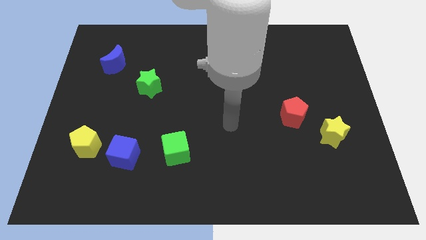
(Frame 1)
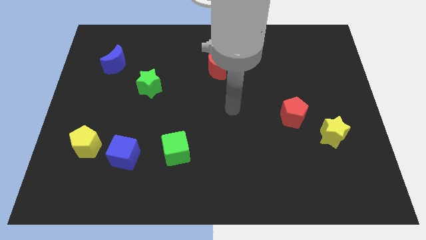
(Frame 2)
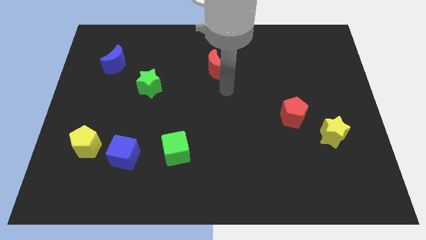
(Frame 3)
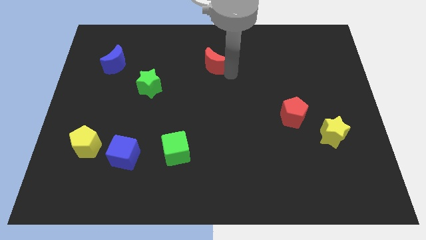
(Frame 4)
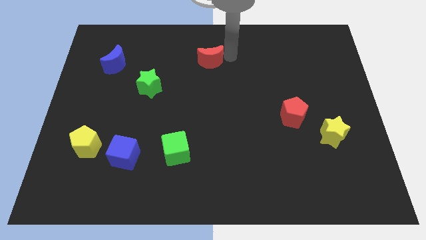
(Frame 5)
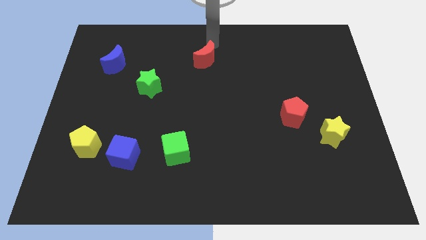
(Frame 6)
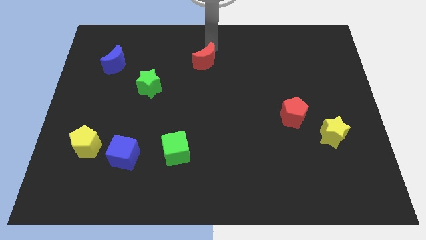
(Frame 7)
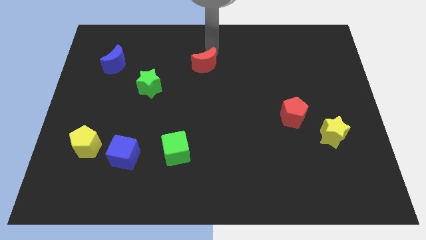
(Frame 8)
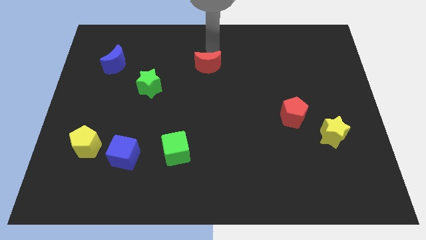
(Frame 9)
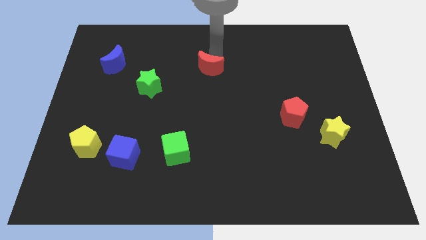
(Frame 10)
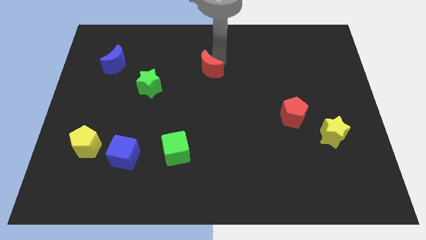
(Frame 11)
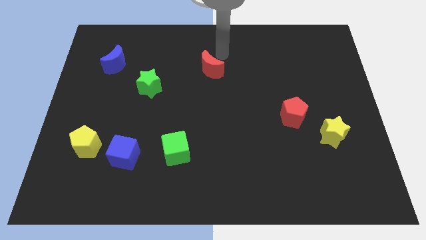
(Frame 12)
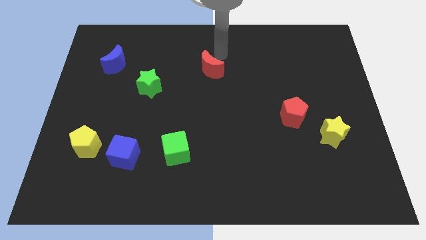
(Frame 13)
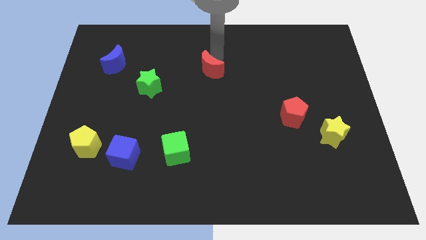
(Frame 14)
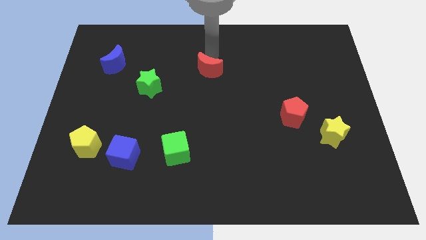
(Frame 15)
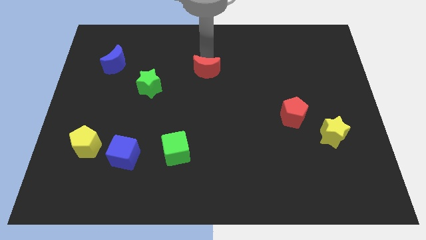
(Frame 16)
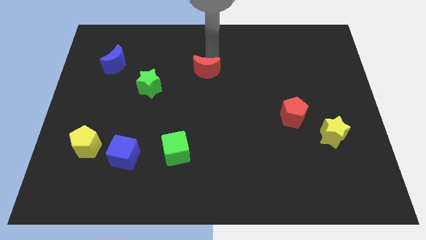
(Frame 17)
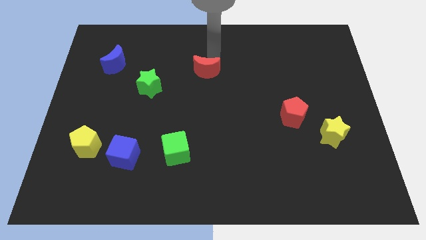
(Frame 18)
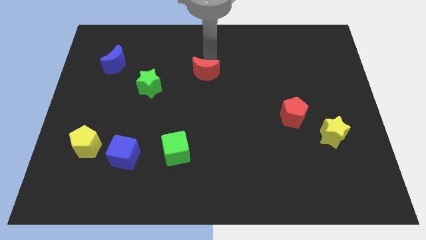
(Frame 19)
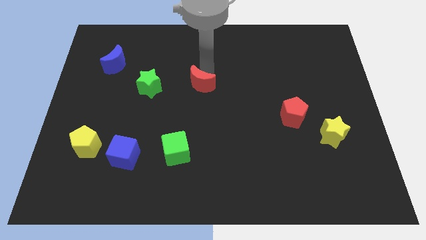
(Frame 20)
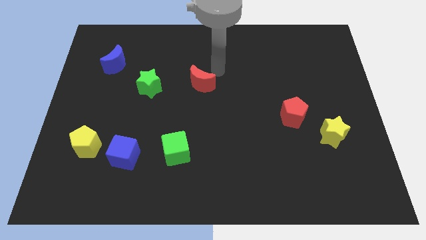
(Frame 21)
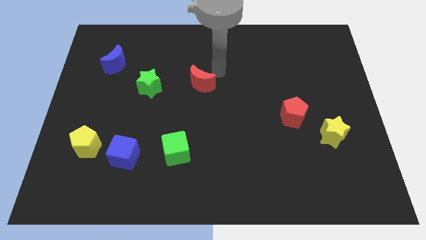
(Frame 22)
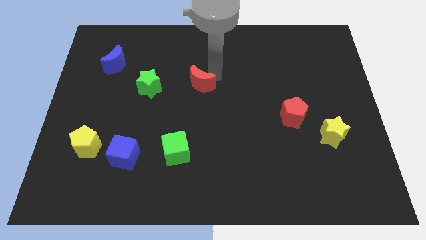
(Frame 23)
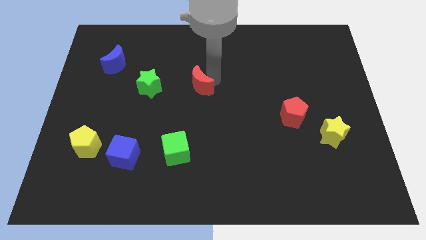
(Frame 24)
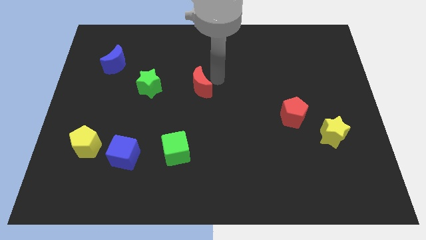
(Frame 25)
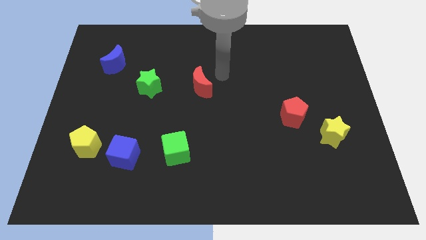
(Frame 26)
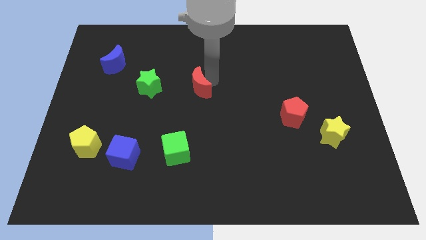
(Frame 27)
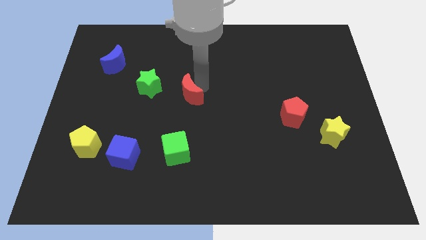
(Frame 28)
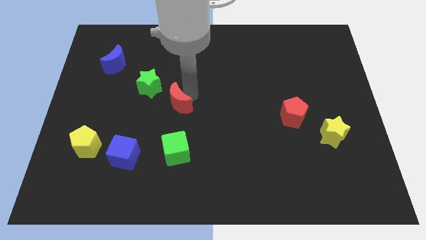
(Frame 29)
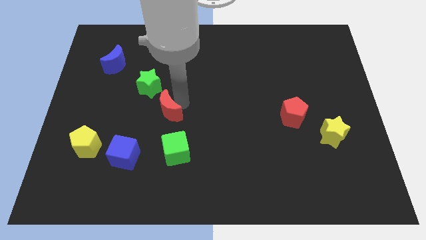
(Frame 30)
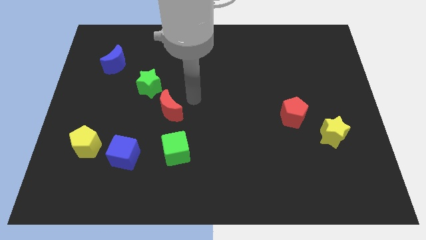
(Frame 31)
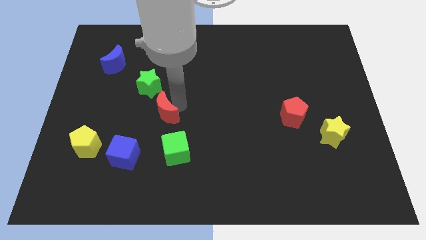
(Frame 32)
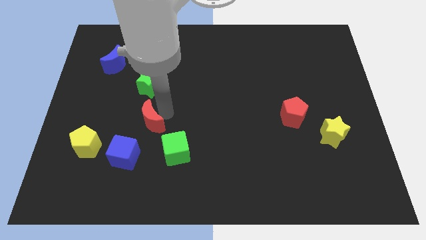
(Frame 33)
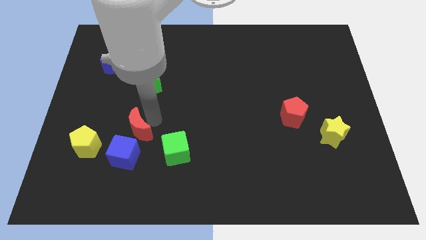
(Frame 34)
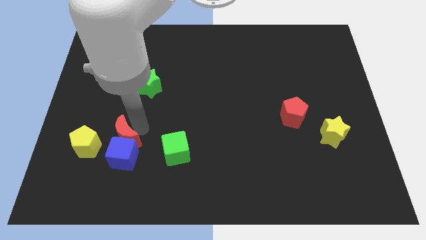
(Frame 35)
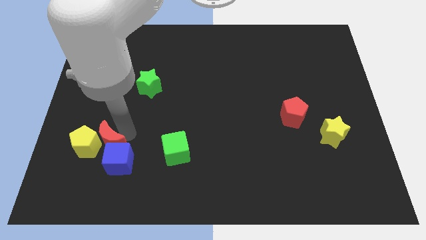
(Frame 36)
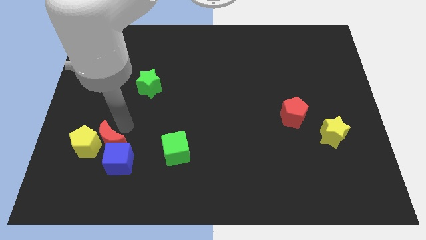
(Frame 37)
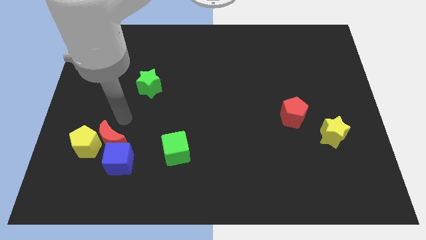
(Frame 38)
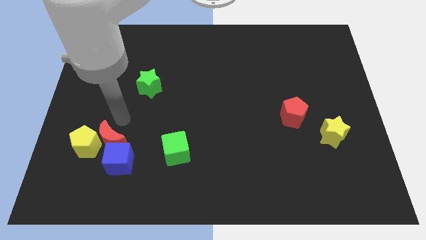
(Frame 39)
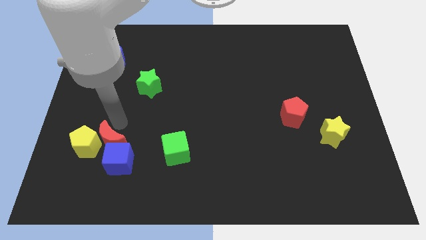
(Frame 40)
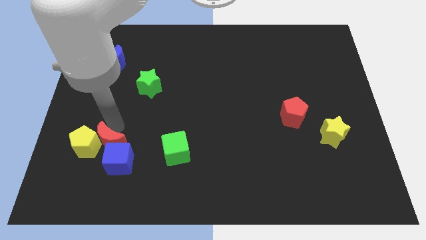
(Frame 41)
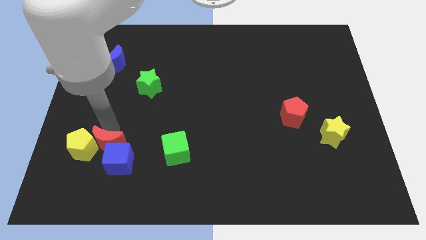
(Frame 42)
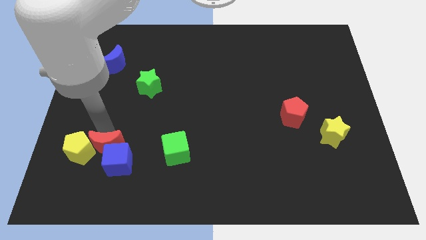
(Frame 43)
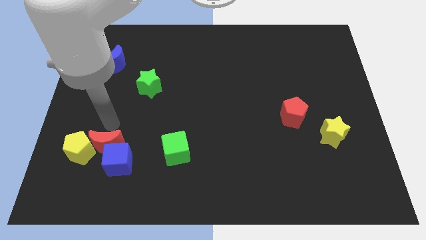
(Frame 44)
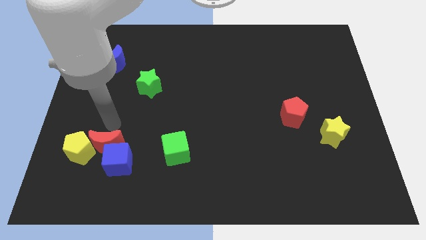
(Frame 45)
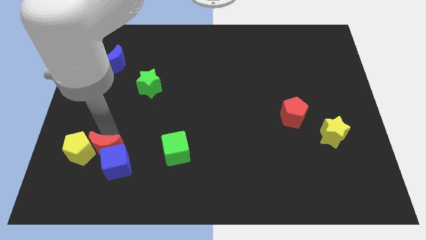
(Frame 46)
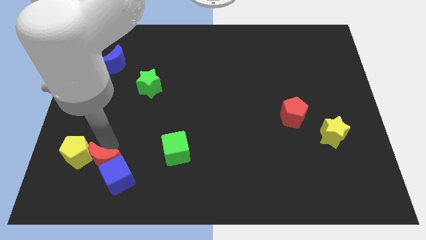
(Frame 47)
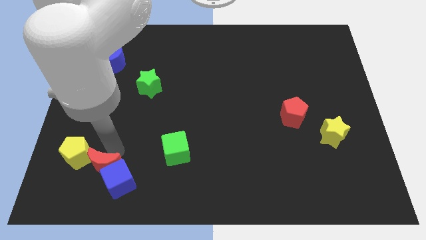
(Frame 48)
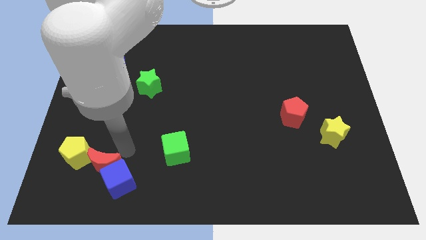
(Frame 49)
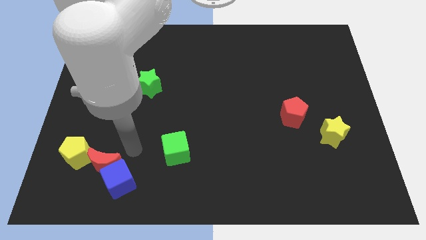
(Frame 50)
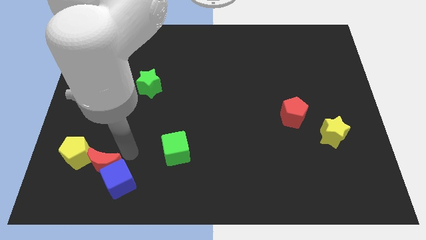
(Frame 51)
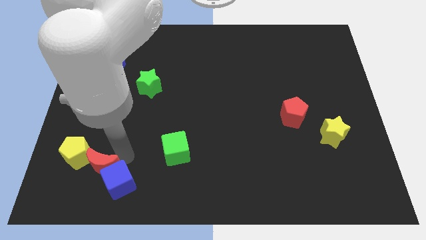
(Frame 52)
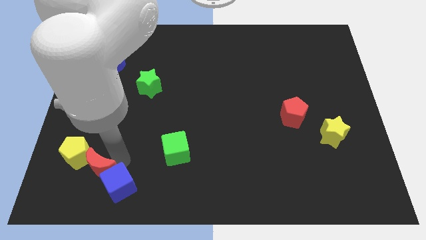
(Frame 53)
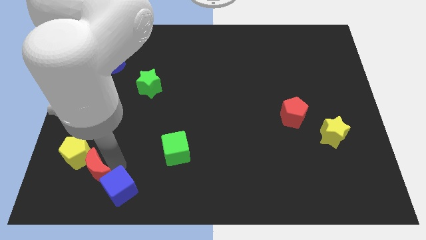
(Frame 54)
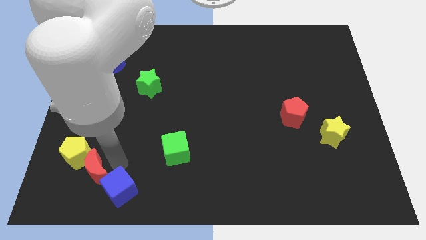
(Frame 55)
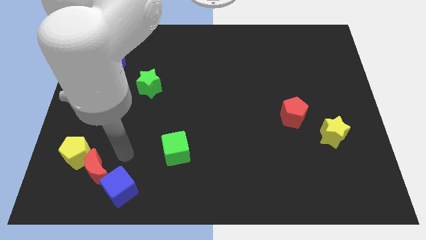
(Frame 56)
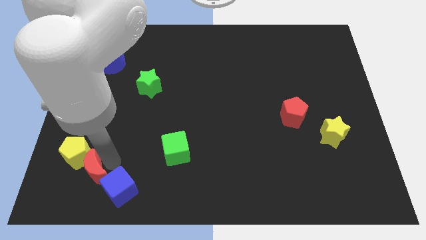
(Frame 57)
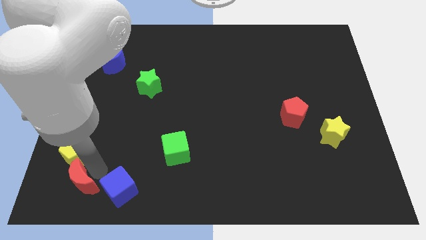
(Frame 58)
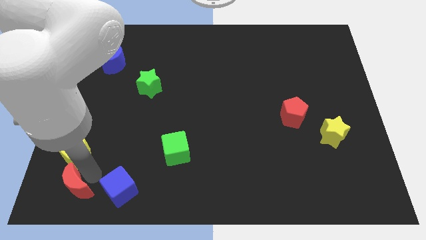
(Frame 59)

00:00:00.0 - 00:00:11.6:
push the red moon to the lower left corner

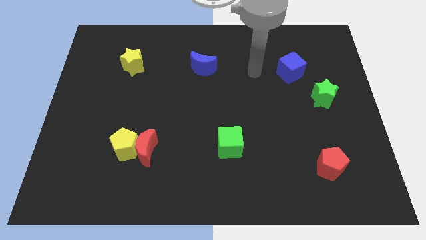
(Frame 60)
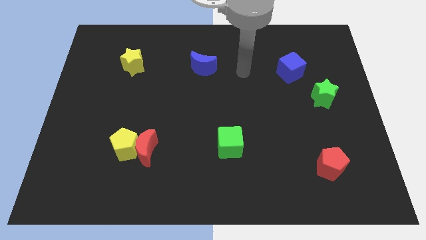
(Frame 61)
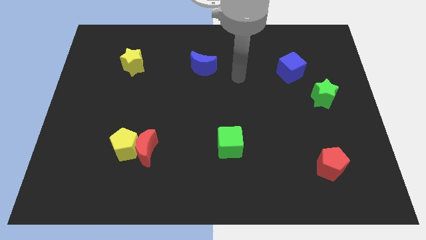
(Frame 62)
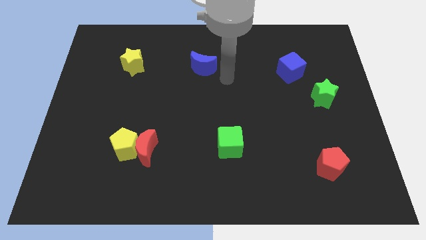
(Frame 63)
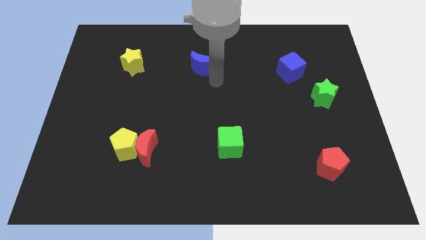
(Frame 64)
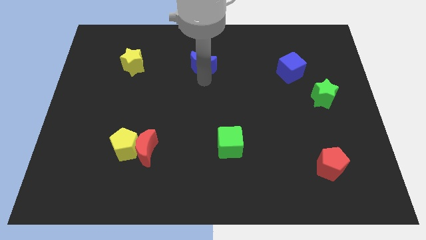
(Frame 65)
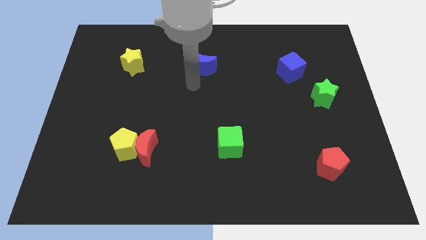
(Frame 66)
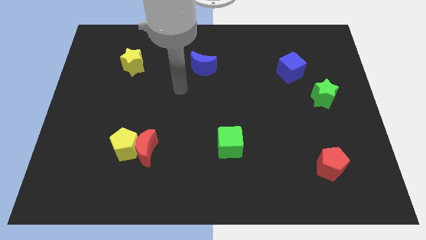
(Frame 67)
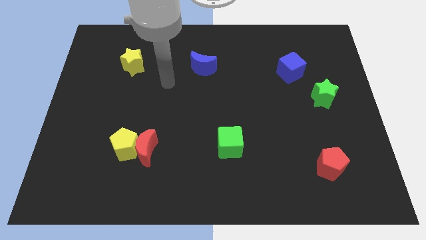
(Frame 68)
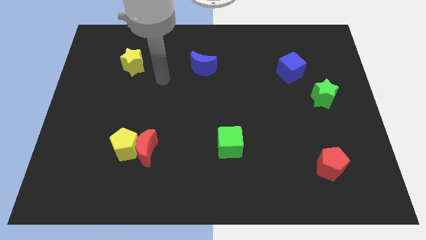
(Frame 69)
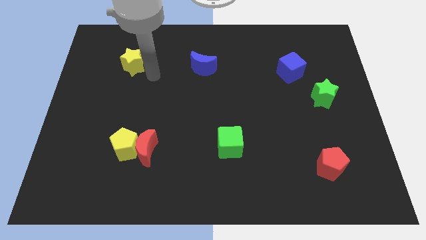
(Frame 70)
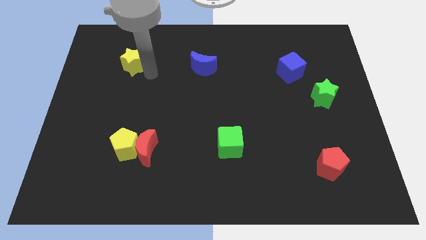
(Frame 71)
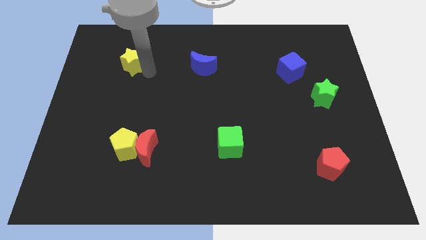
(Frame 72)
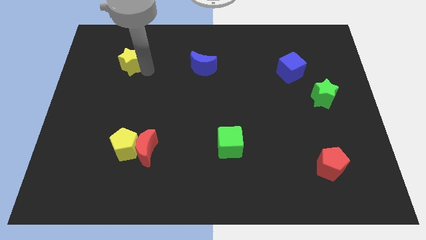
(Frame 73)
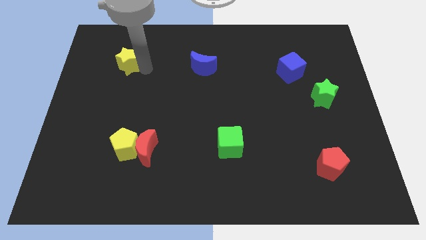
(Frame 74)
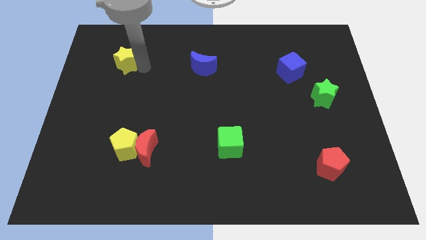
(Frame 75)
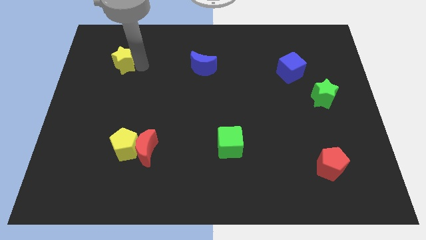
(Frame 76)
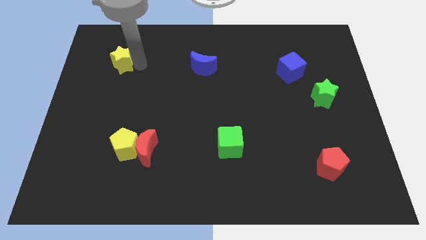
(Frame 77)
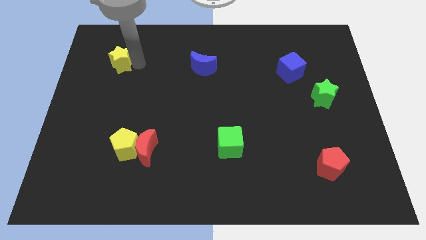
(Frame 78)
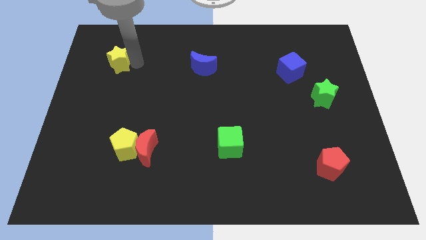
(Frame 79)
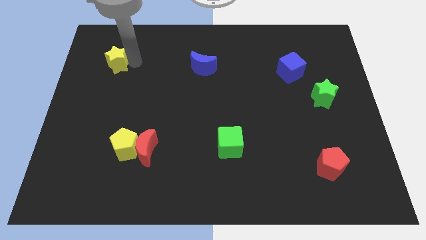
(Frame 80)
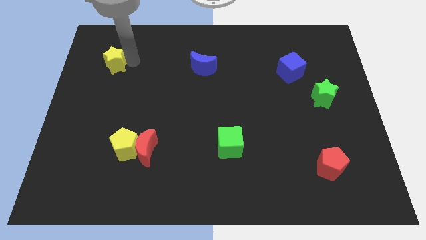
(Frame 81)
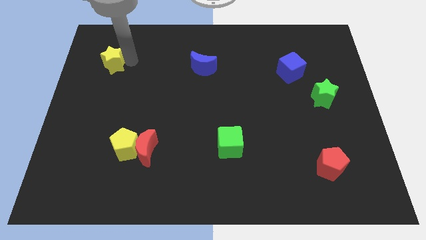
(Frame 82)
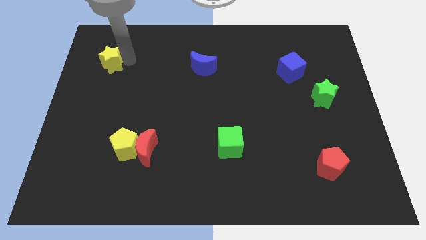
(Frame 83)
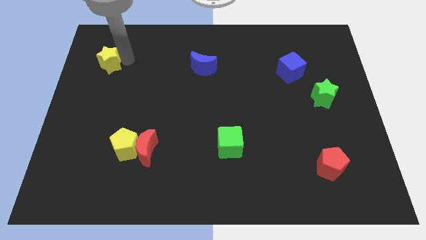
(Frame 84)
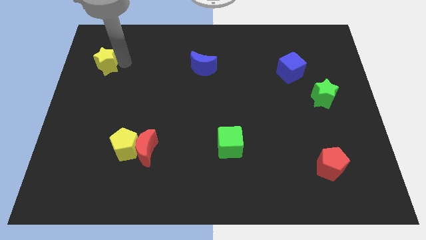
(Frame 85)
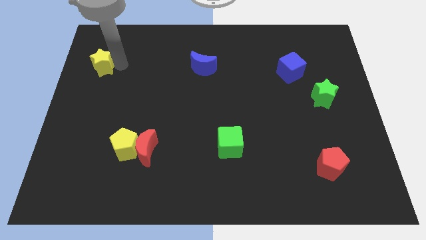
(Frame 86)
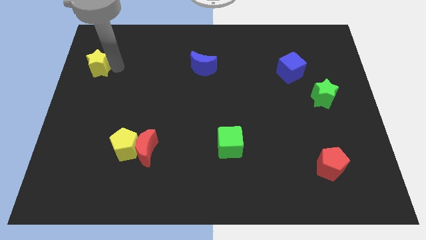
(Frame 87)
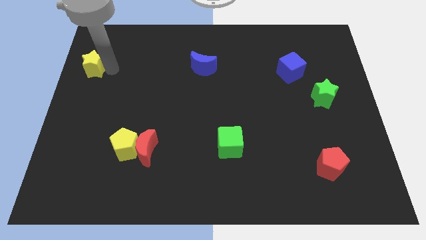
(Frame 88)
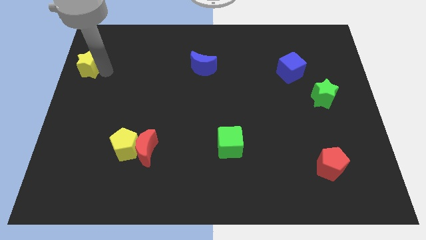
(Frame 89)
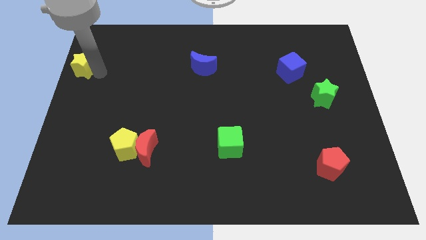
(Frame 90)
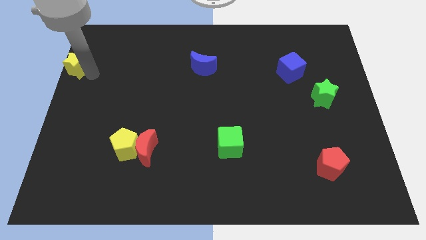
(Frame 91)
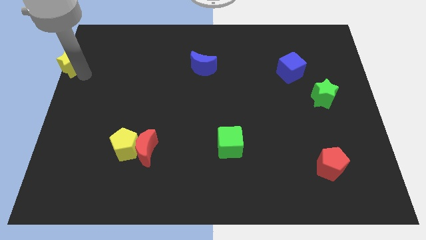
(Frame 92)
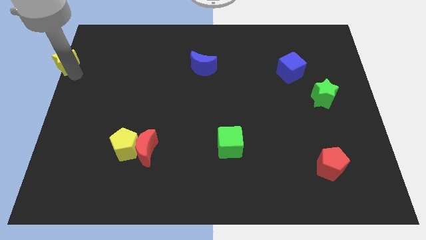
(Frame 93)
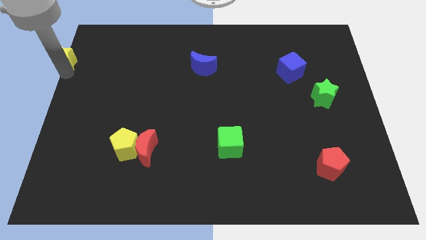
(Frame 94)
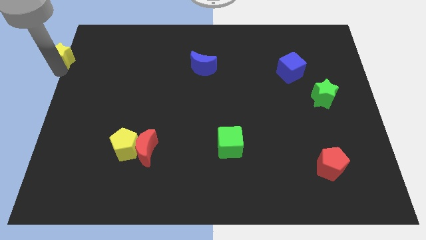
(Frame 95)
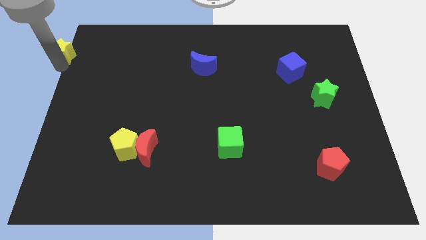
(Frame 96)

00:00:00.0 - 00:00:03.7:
push the yellow star to the top left corner
